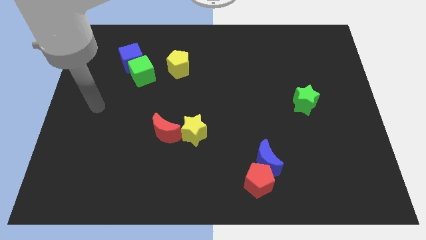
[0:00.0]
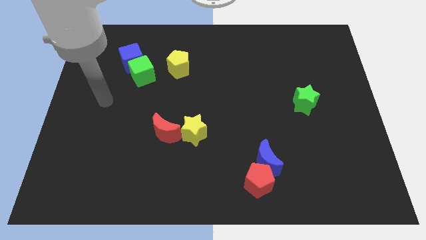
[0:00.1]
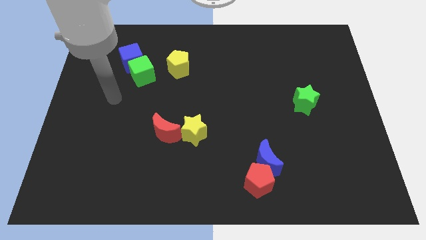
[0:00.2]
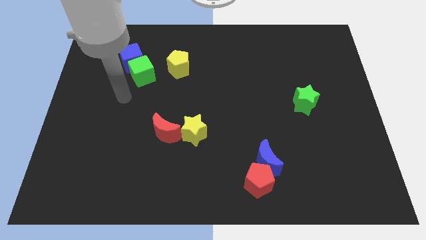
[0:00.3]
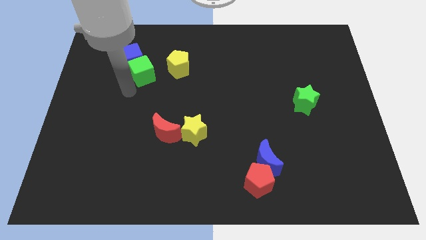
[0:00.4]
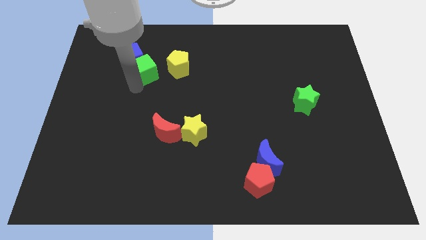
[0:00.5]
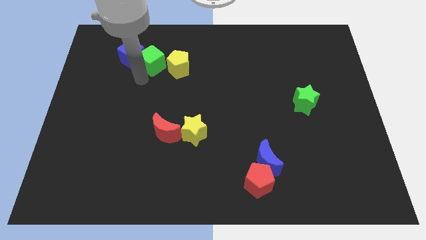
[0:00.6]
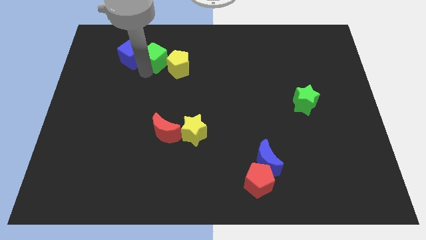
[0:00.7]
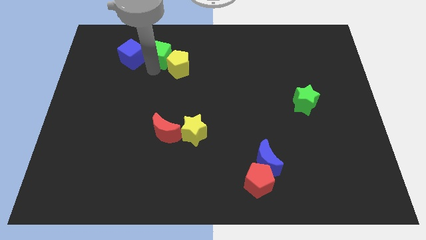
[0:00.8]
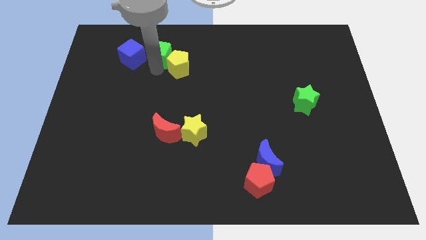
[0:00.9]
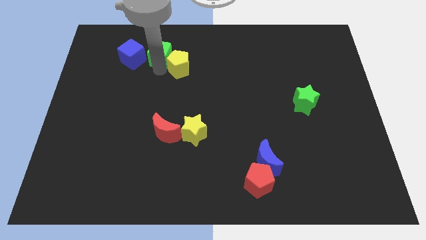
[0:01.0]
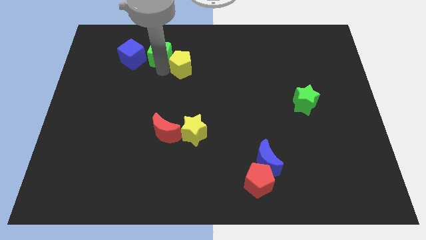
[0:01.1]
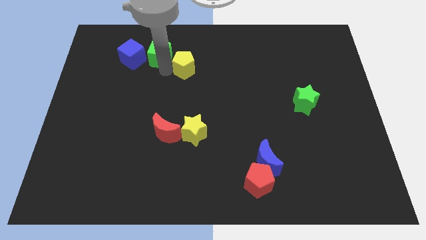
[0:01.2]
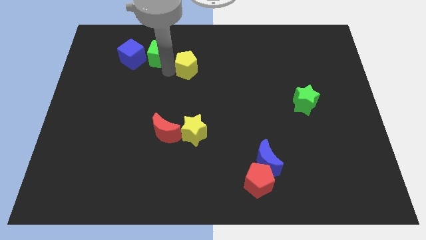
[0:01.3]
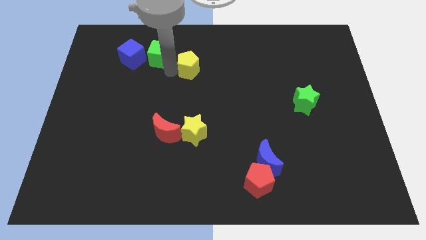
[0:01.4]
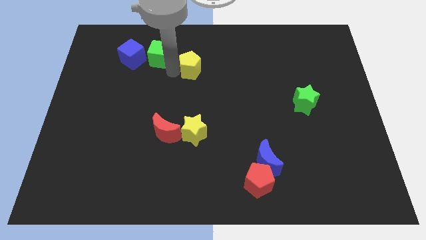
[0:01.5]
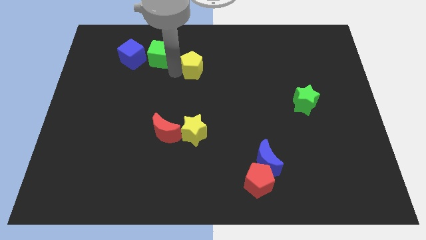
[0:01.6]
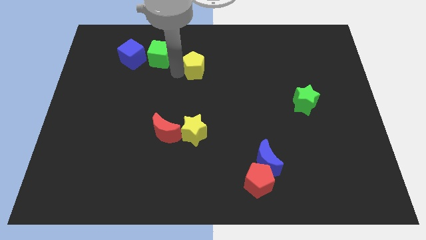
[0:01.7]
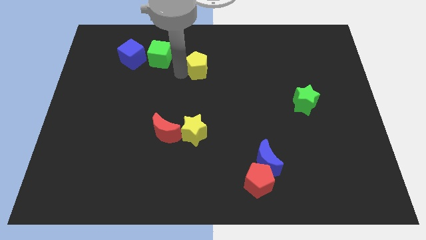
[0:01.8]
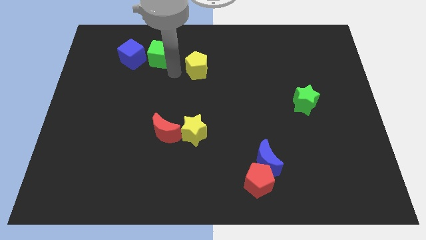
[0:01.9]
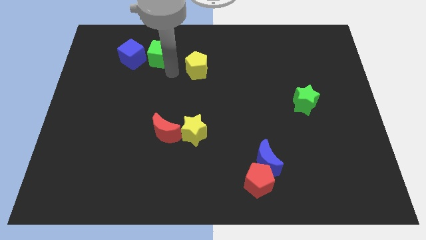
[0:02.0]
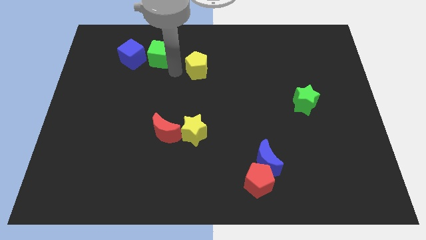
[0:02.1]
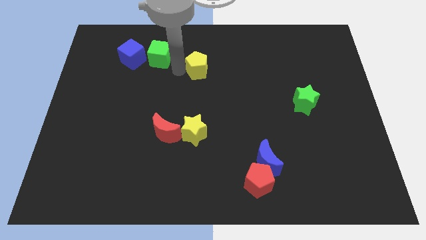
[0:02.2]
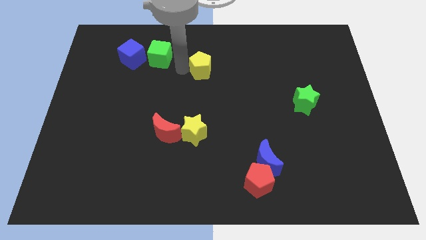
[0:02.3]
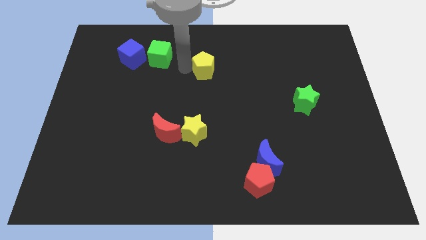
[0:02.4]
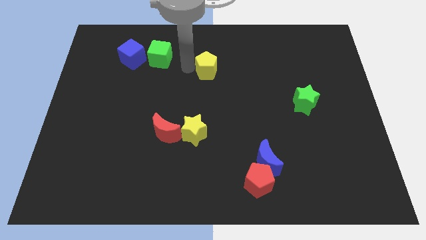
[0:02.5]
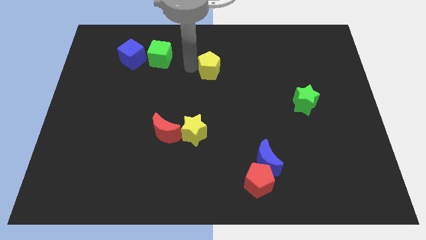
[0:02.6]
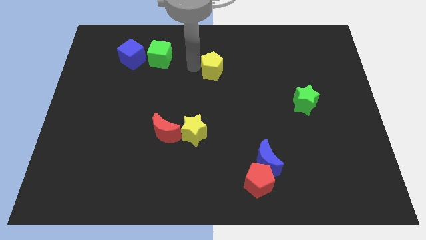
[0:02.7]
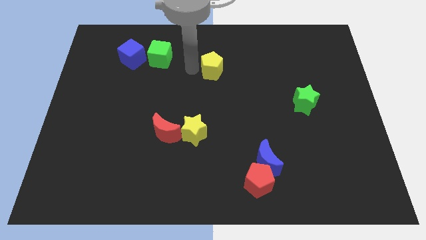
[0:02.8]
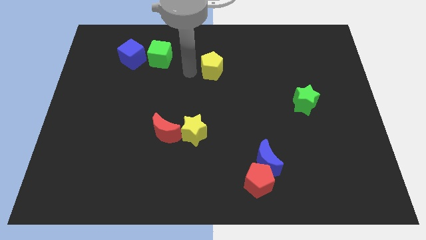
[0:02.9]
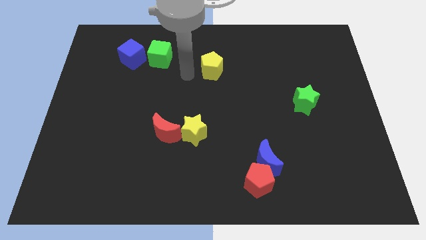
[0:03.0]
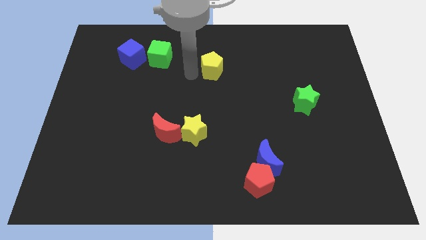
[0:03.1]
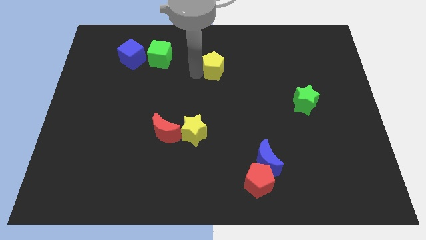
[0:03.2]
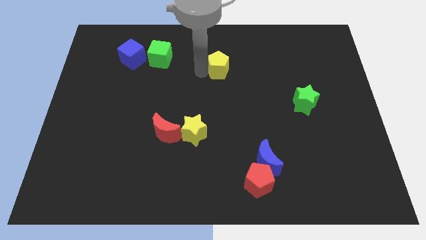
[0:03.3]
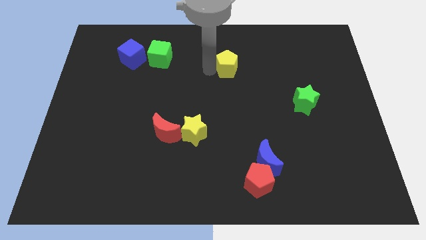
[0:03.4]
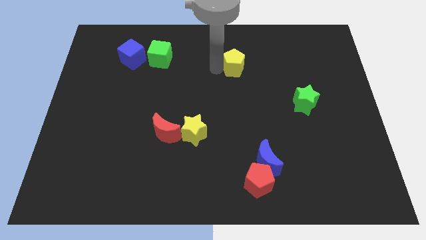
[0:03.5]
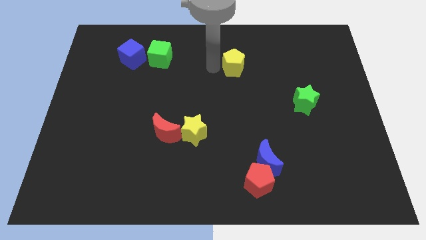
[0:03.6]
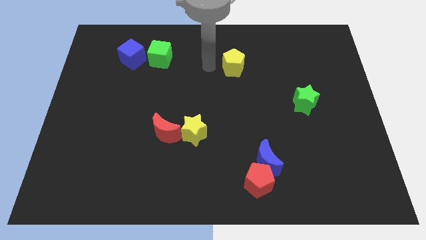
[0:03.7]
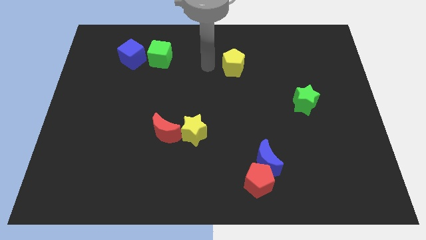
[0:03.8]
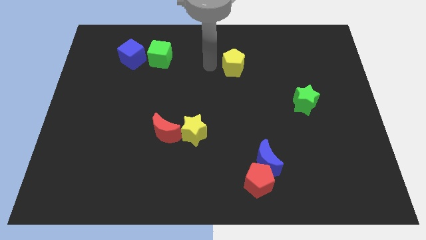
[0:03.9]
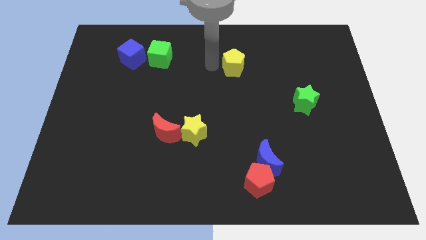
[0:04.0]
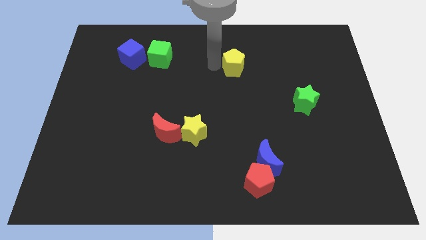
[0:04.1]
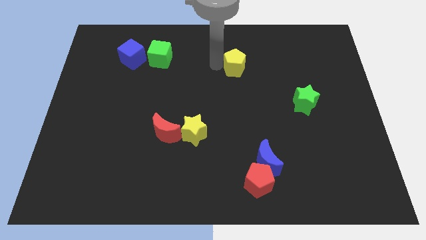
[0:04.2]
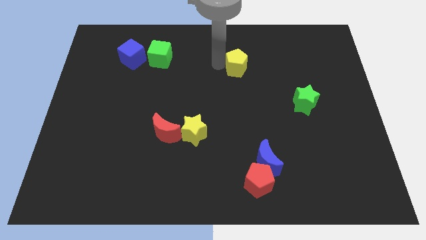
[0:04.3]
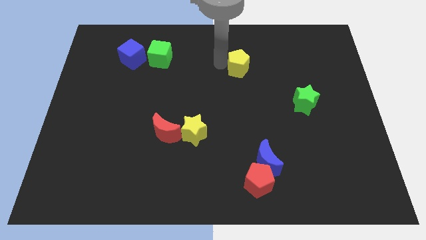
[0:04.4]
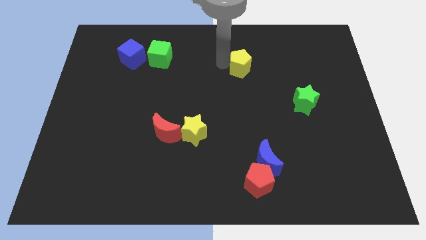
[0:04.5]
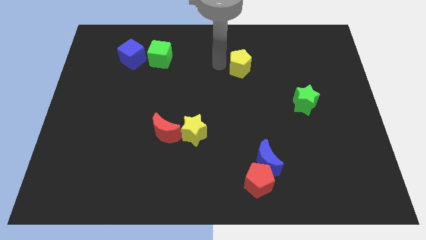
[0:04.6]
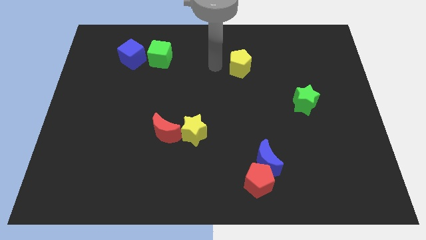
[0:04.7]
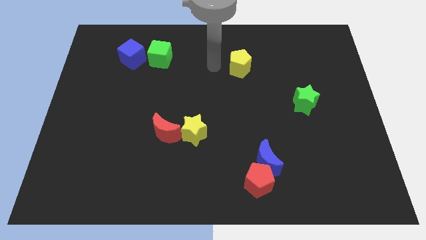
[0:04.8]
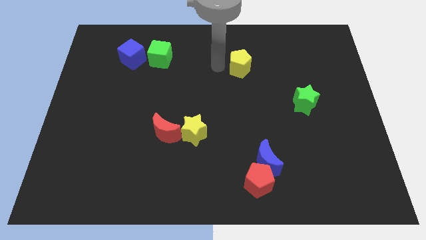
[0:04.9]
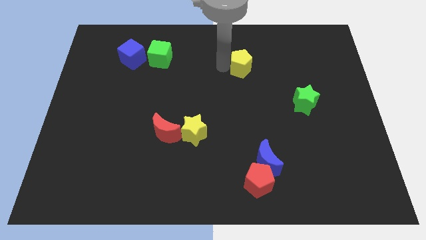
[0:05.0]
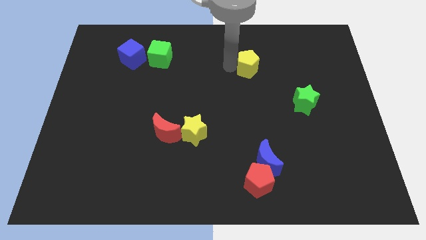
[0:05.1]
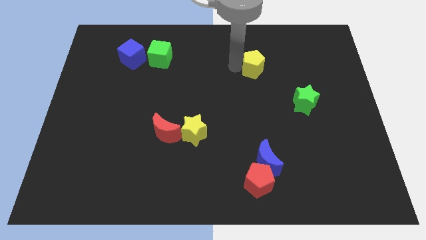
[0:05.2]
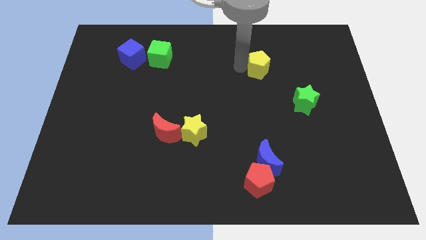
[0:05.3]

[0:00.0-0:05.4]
move the yellow pentagon to the right

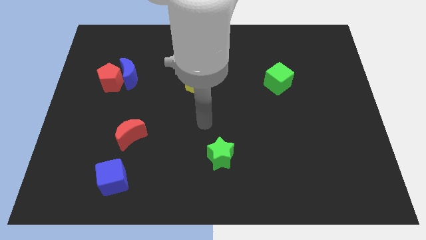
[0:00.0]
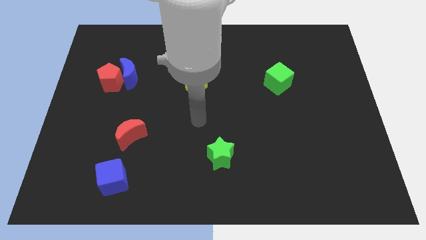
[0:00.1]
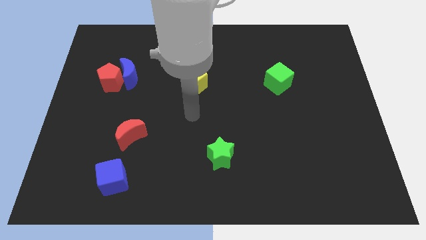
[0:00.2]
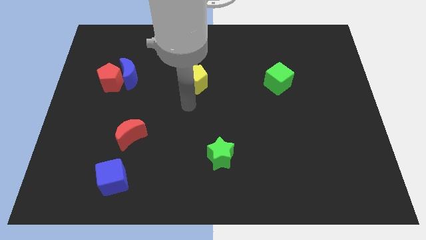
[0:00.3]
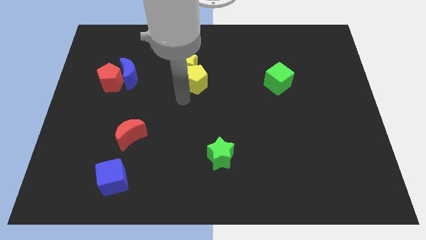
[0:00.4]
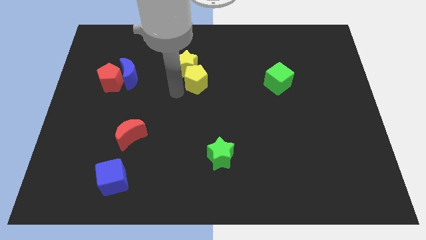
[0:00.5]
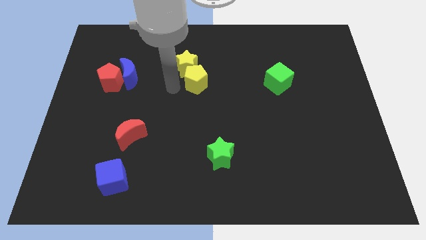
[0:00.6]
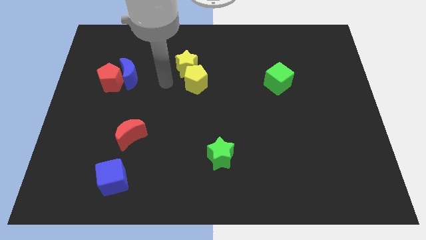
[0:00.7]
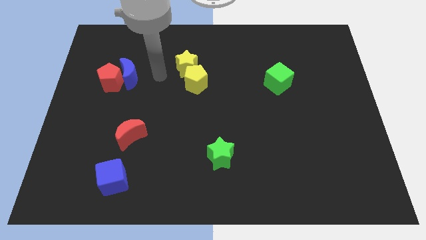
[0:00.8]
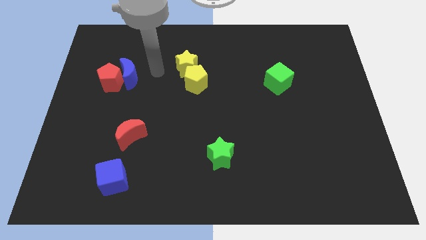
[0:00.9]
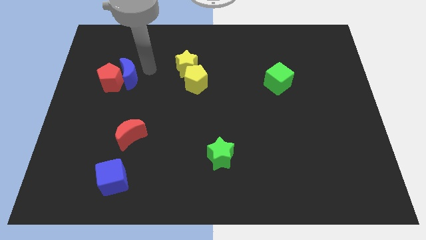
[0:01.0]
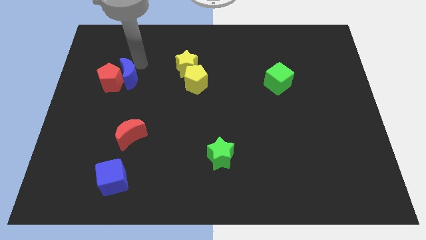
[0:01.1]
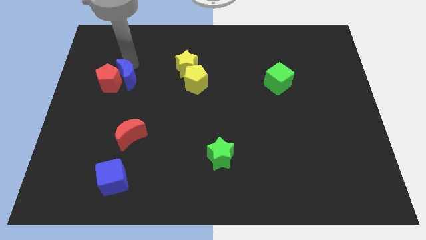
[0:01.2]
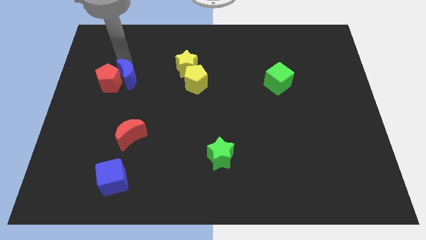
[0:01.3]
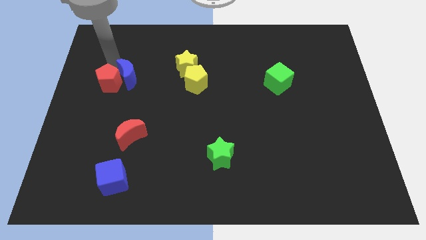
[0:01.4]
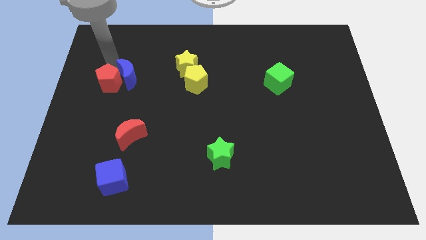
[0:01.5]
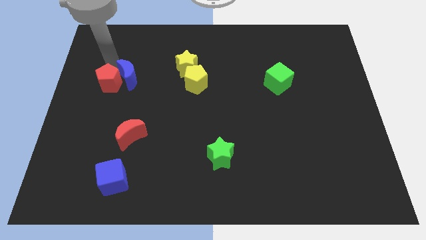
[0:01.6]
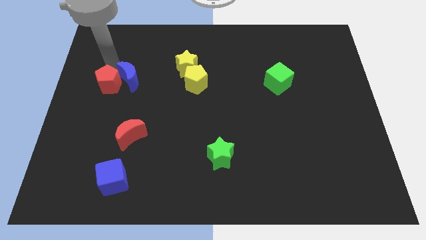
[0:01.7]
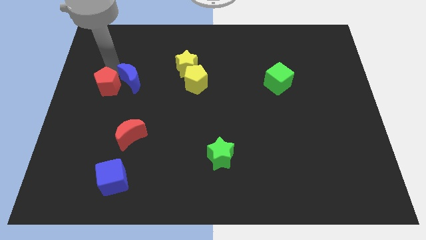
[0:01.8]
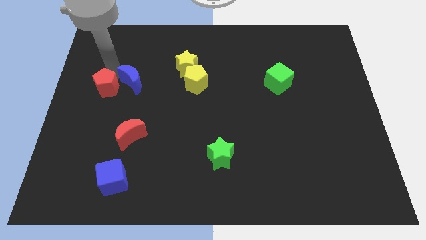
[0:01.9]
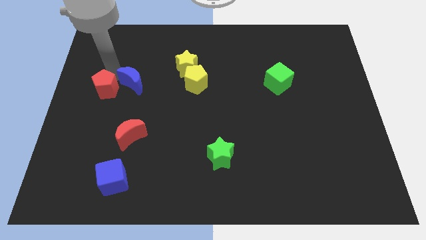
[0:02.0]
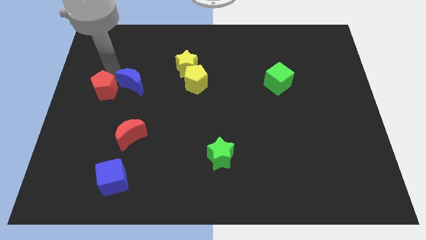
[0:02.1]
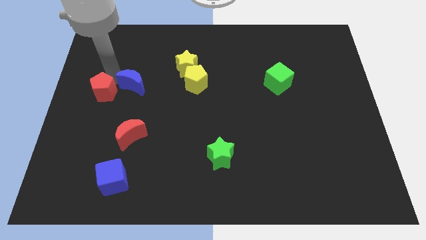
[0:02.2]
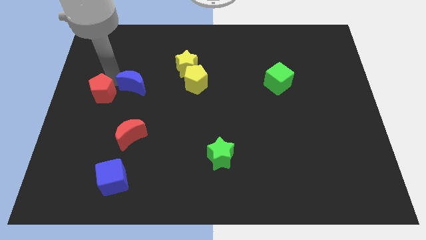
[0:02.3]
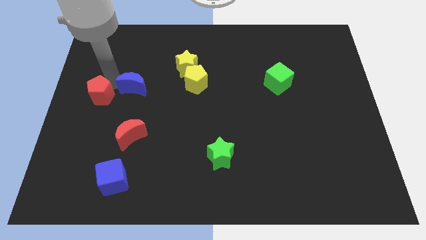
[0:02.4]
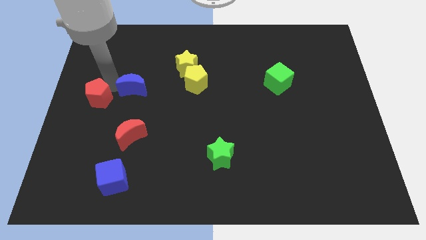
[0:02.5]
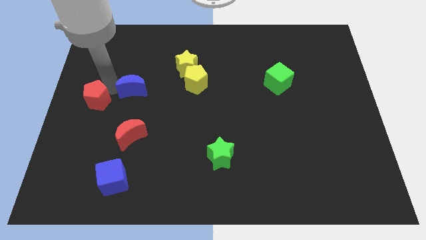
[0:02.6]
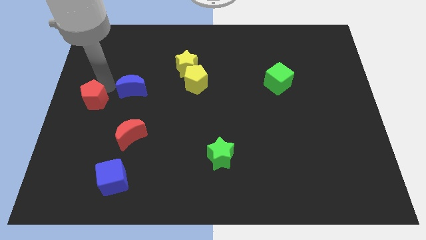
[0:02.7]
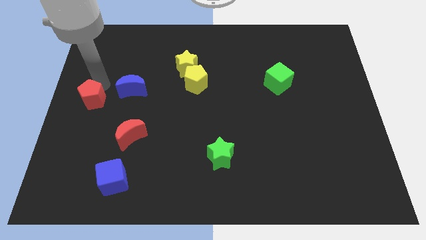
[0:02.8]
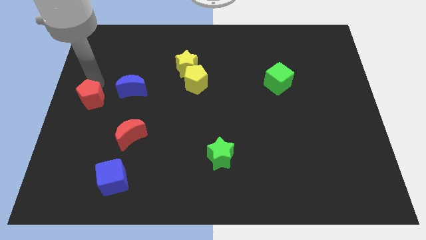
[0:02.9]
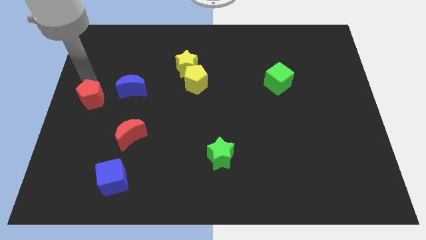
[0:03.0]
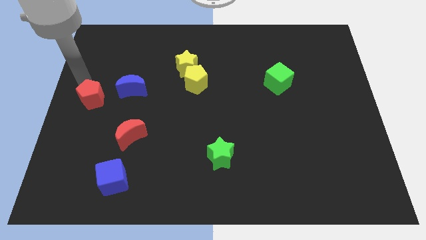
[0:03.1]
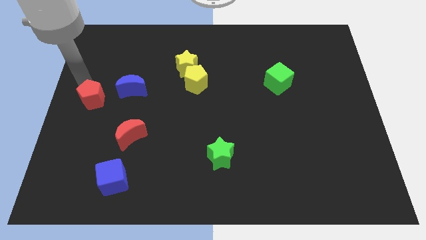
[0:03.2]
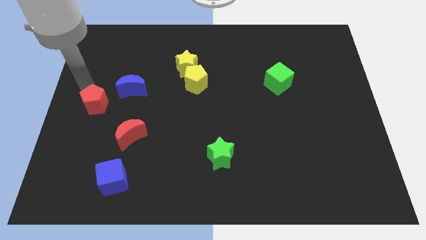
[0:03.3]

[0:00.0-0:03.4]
slide the red pentagon a bit down
